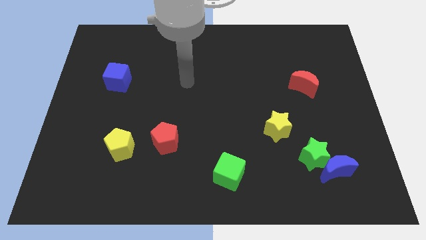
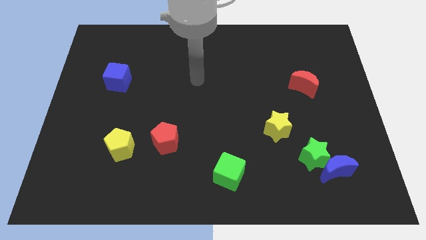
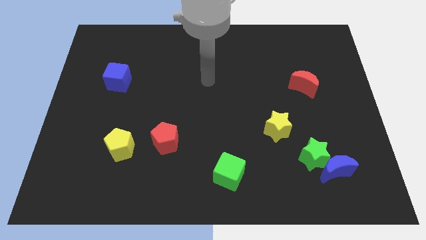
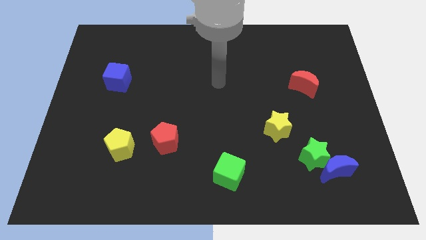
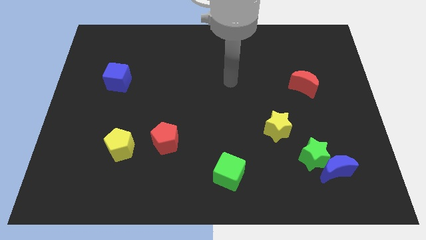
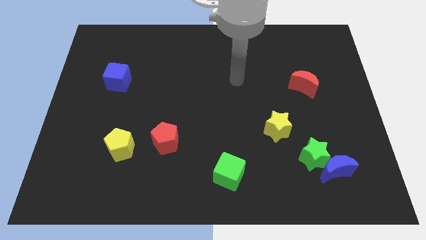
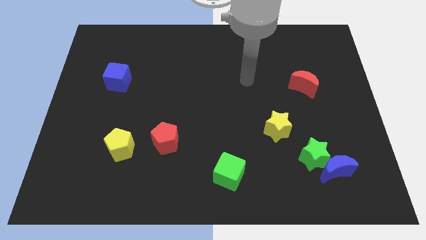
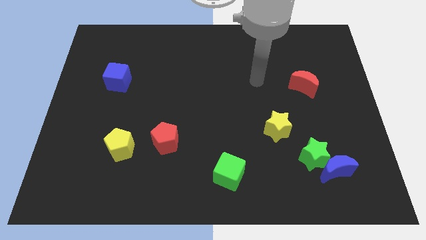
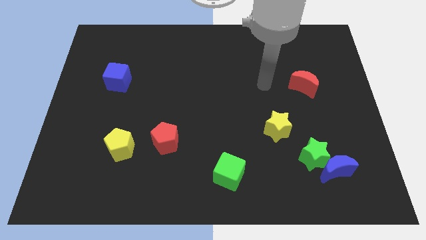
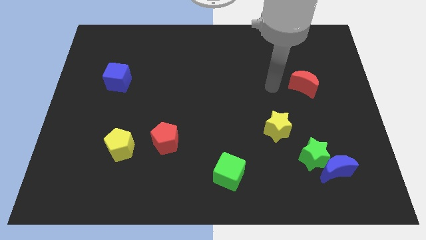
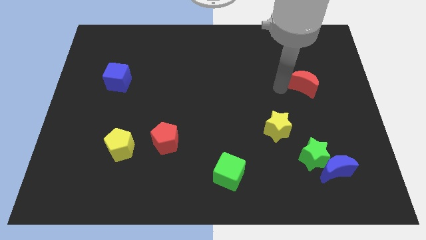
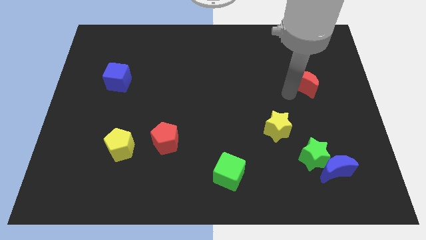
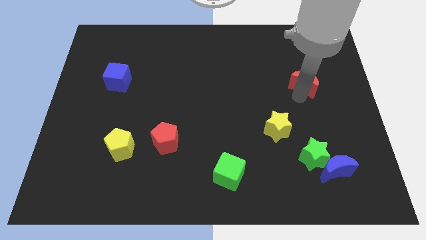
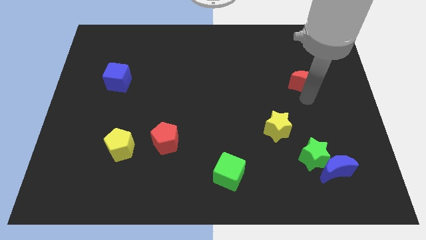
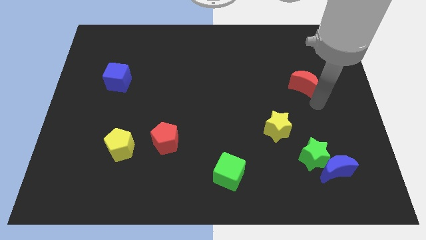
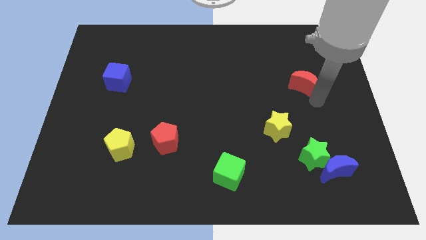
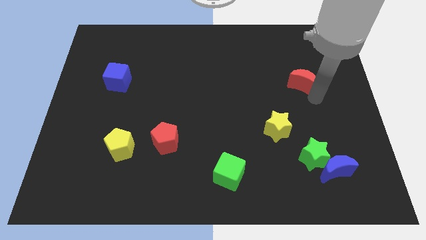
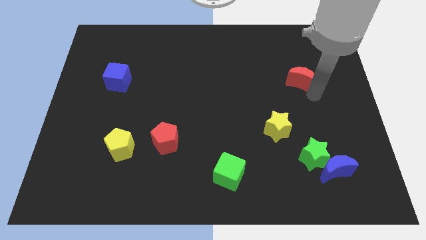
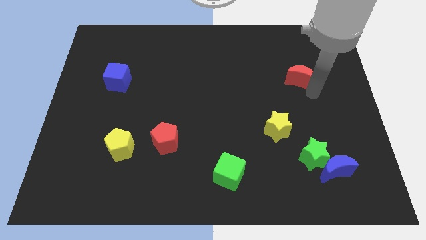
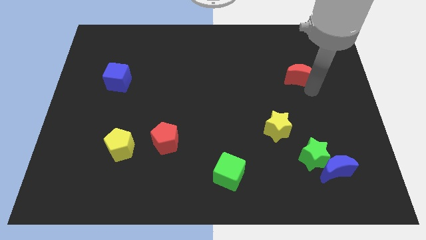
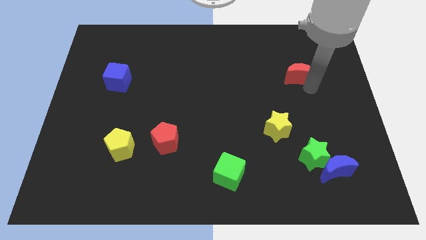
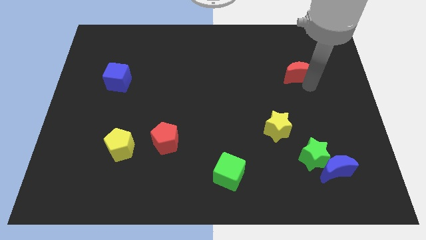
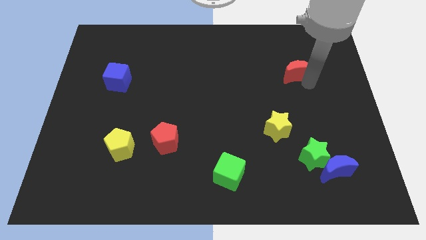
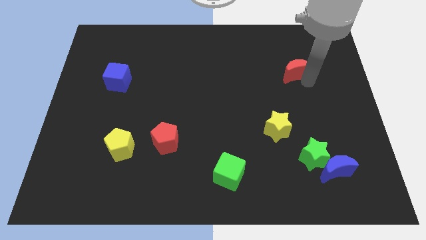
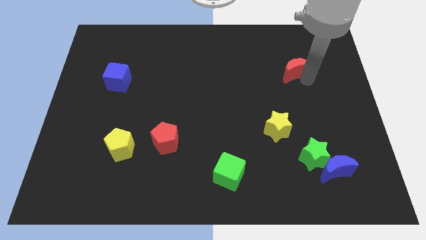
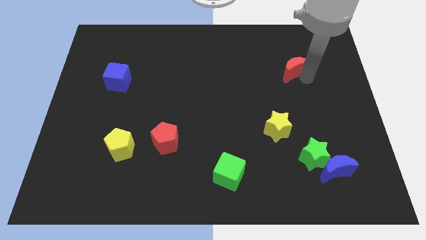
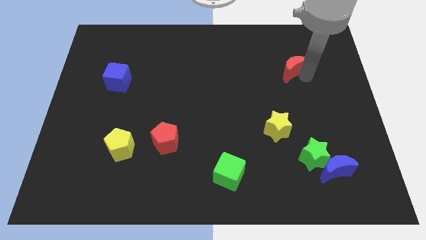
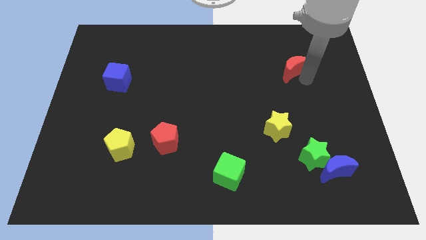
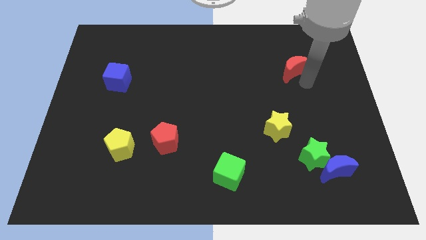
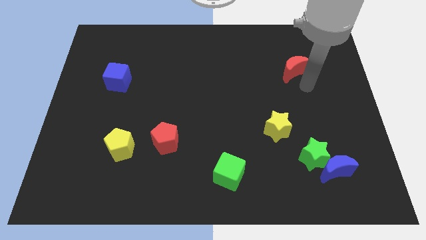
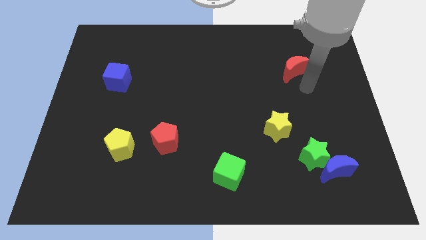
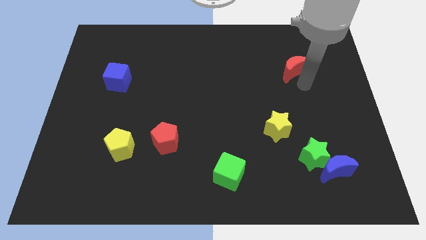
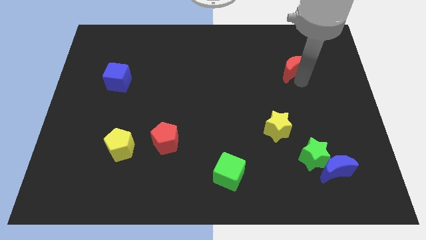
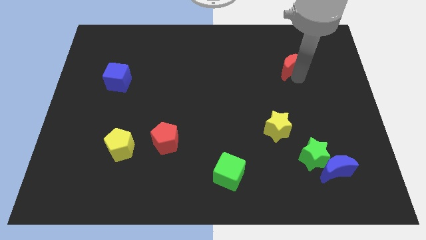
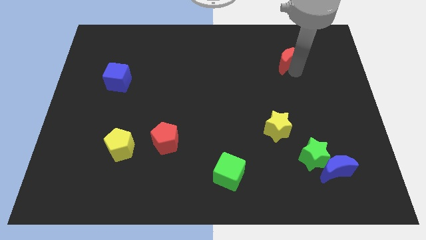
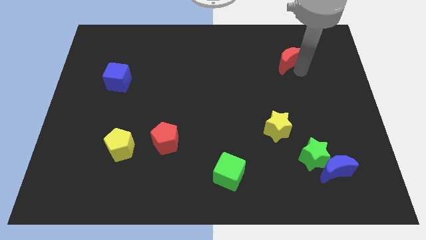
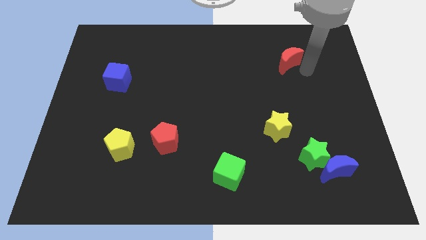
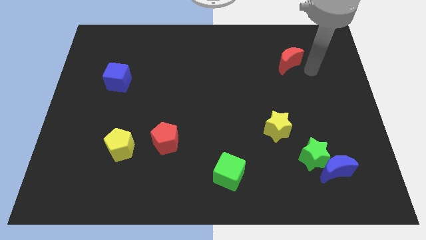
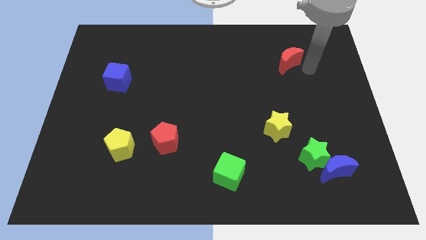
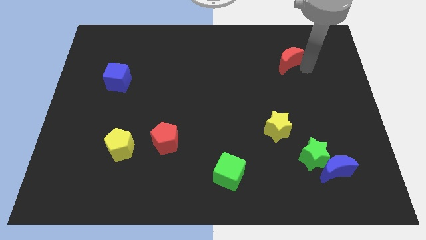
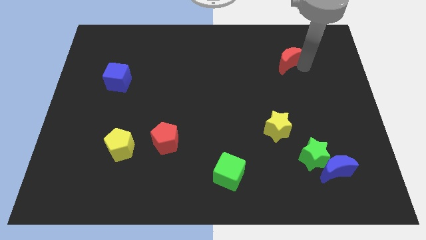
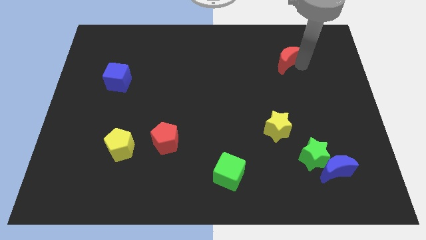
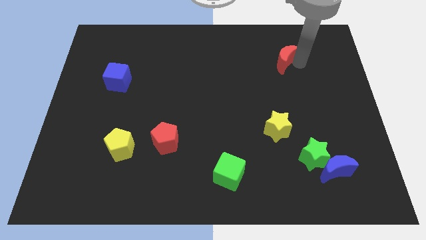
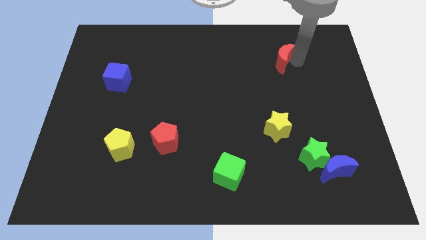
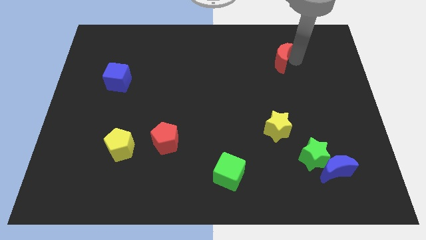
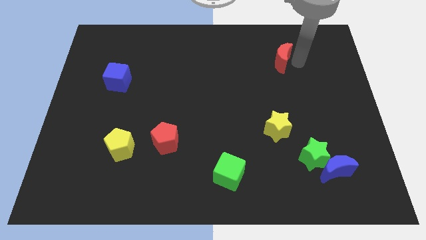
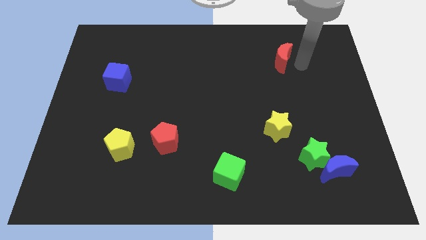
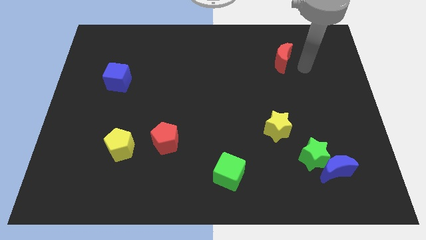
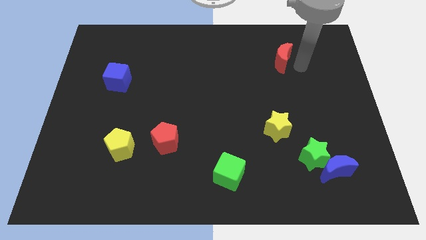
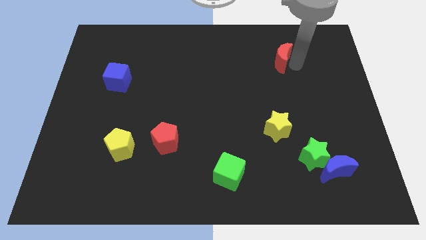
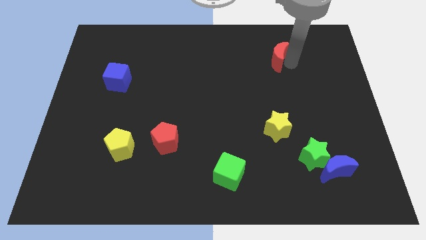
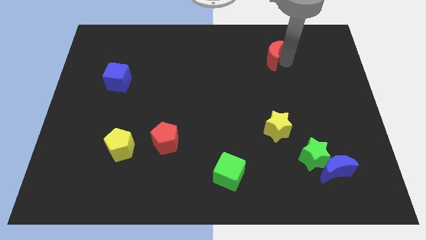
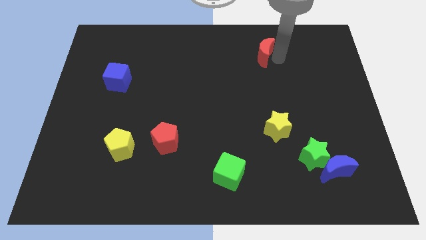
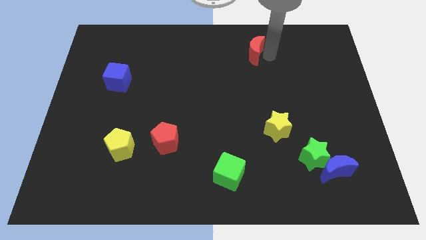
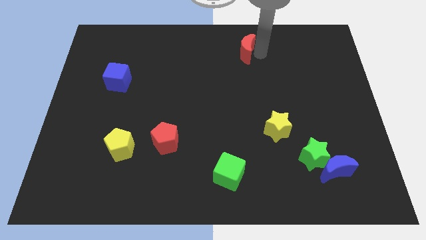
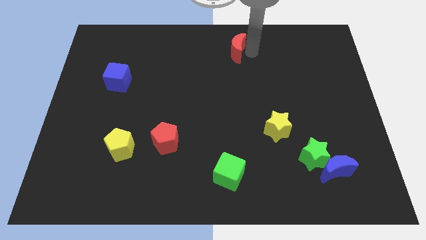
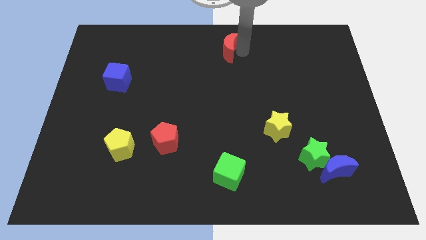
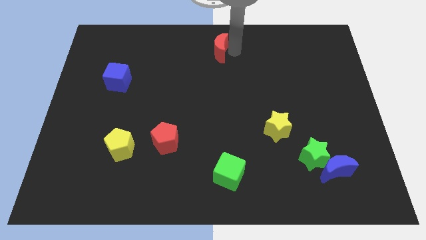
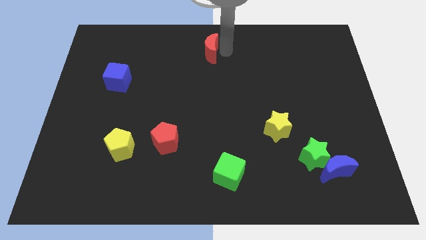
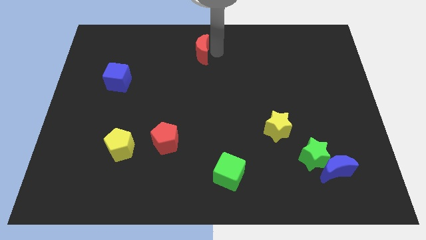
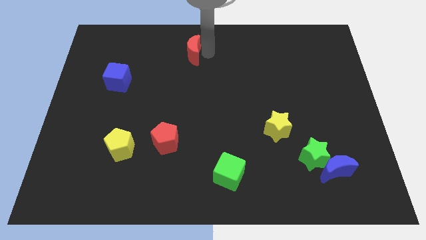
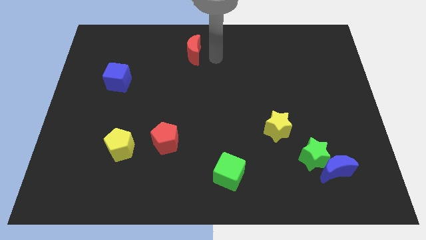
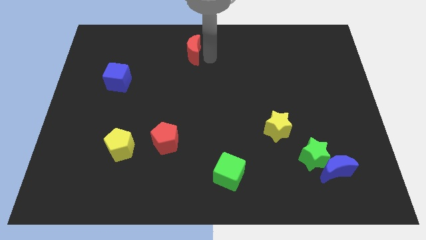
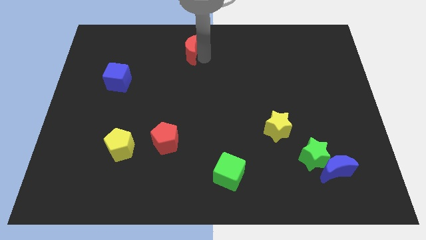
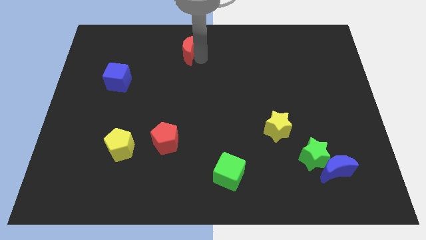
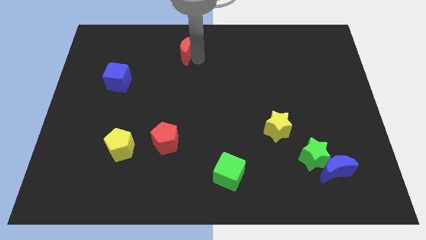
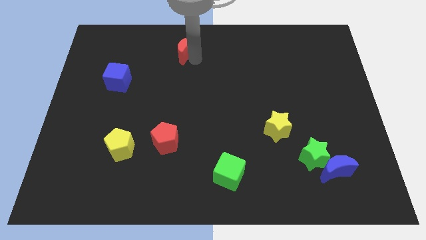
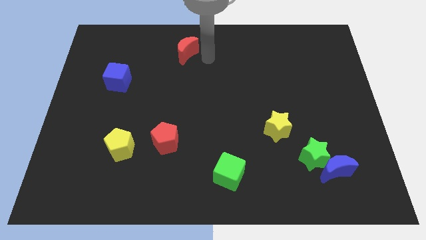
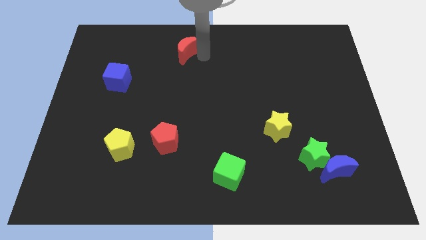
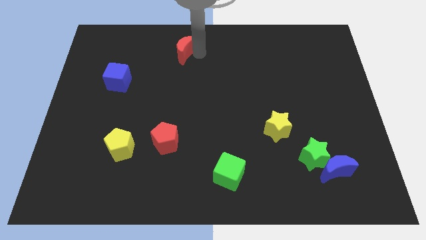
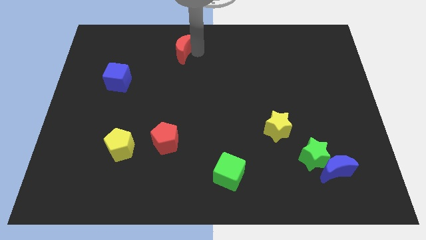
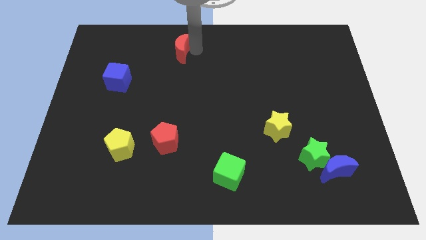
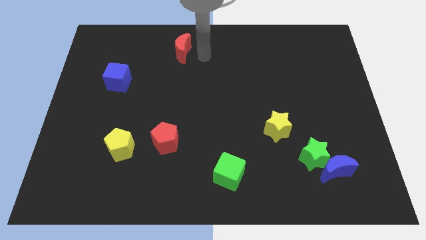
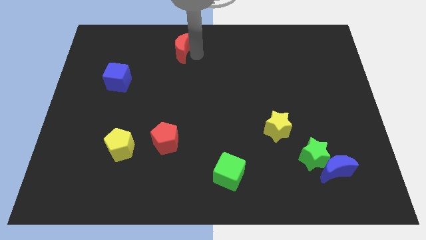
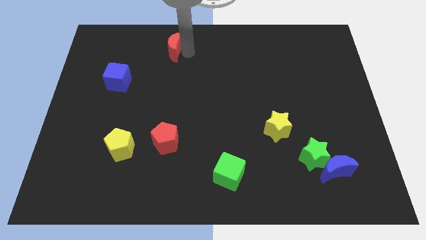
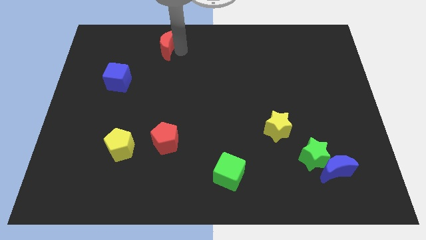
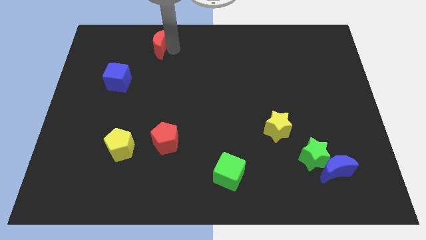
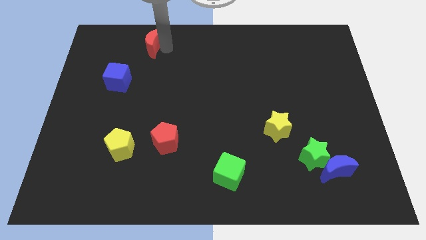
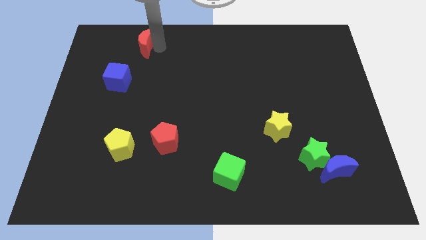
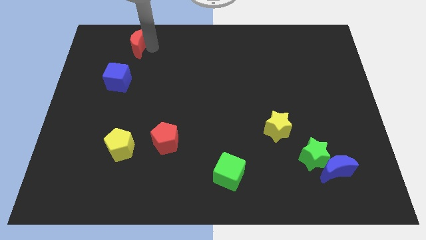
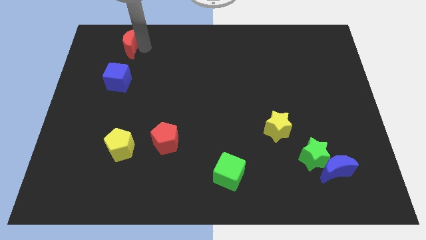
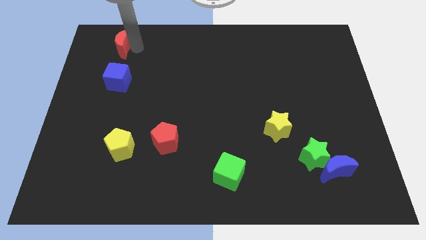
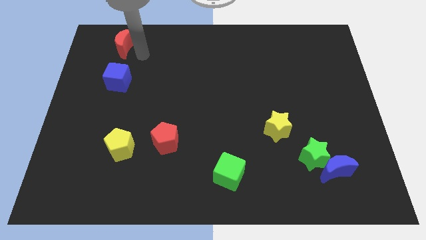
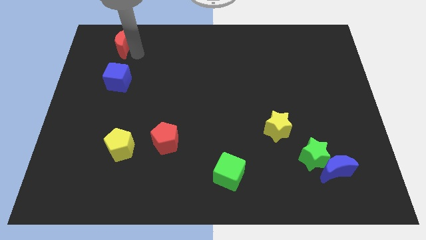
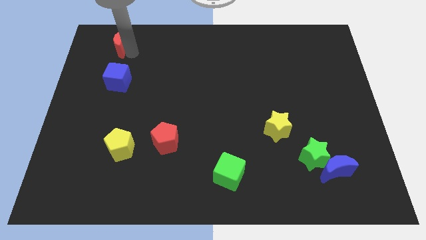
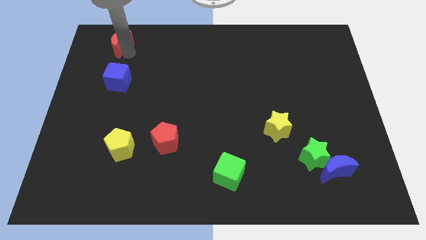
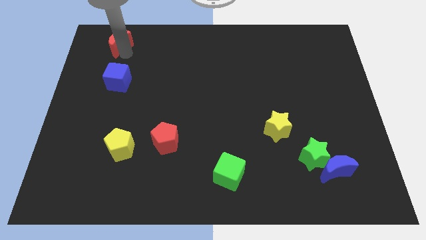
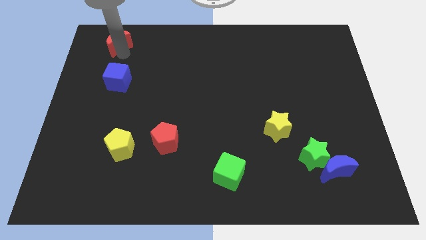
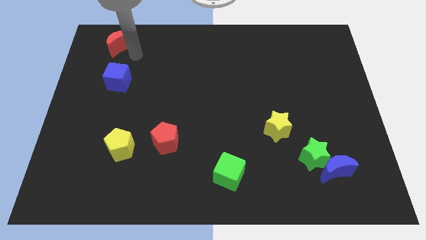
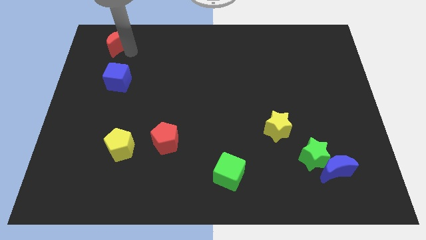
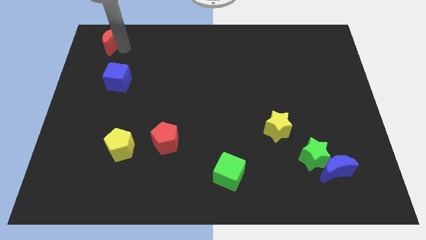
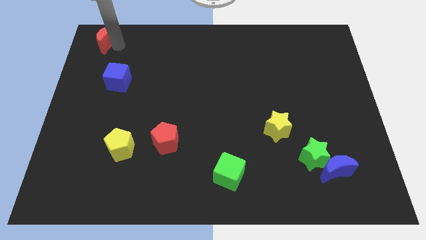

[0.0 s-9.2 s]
put the red moon to the upper left corner
